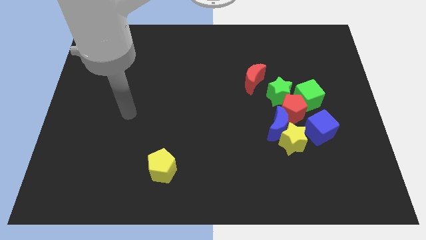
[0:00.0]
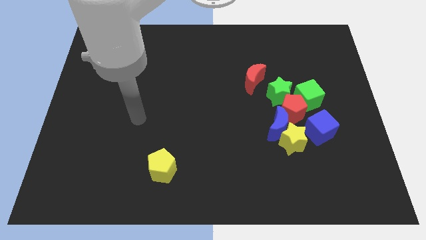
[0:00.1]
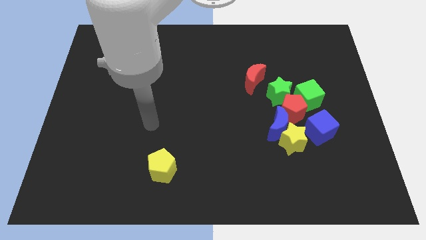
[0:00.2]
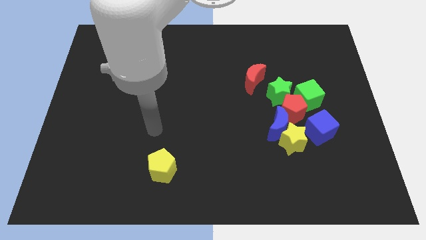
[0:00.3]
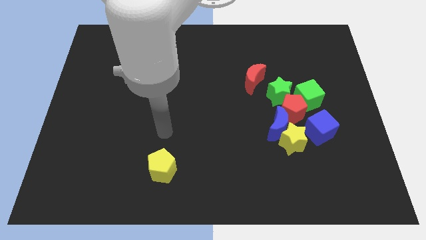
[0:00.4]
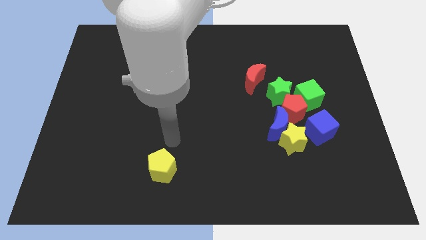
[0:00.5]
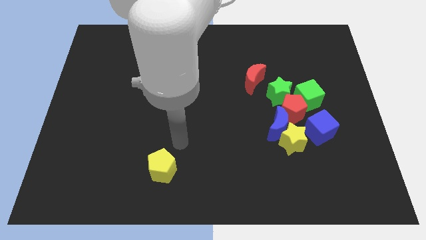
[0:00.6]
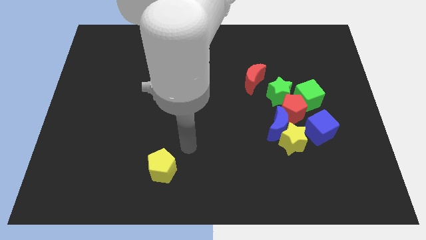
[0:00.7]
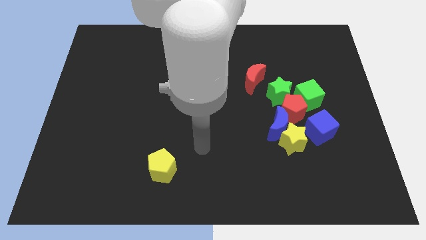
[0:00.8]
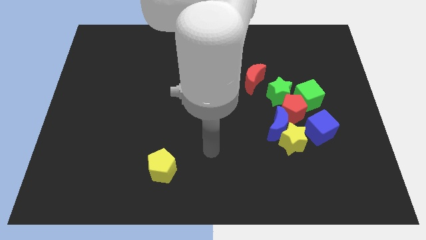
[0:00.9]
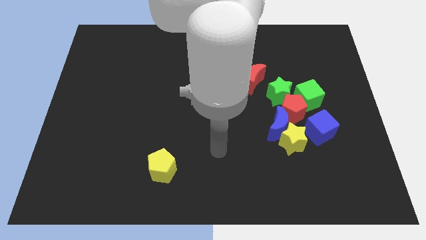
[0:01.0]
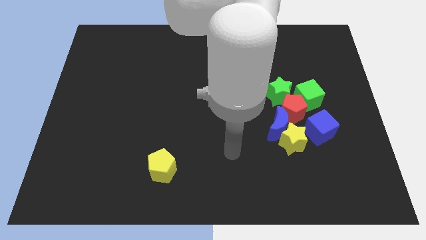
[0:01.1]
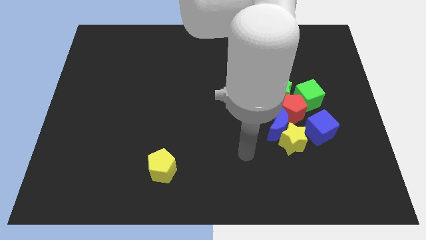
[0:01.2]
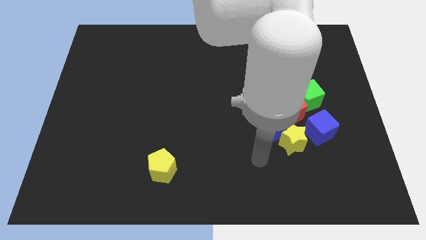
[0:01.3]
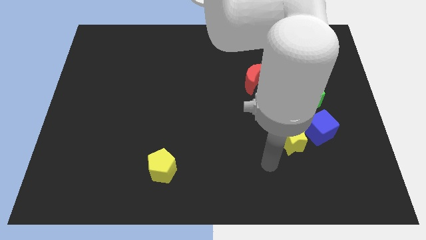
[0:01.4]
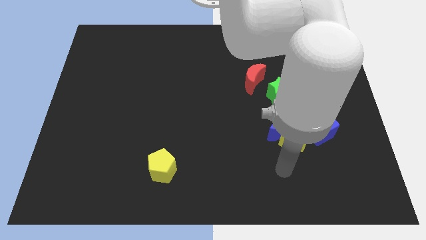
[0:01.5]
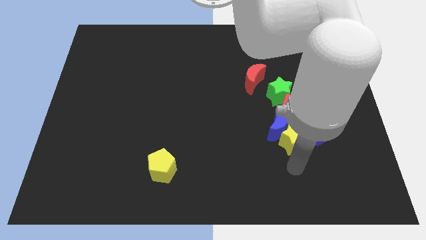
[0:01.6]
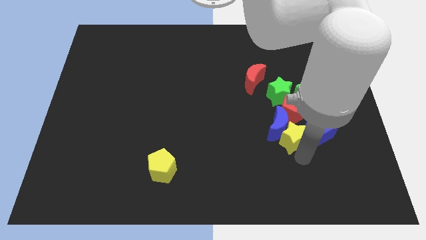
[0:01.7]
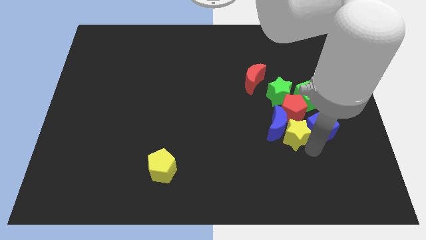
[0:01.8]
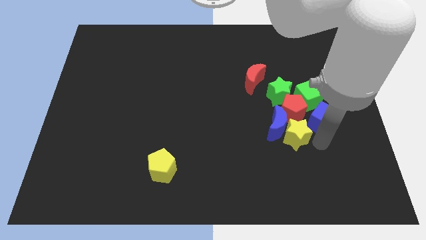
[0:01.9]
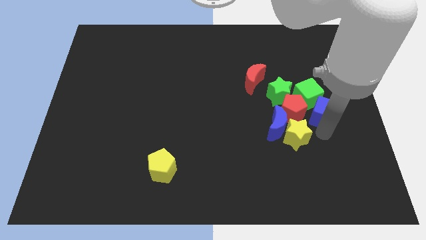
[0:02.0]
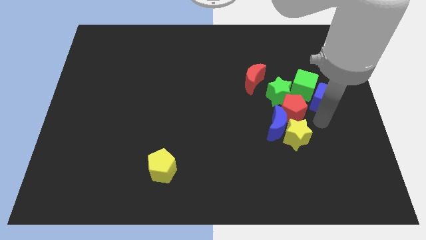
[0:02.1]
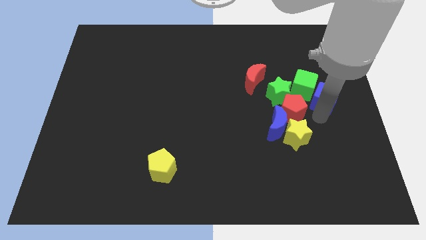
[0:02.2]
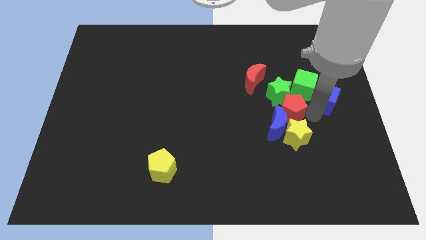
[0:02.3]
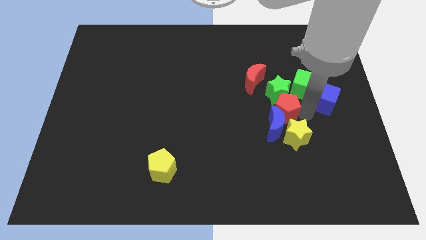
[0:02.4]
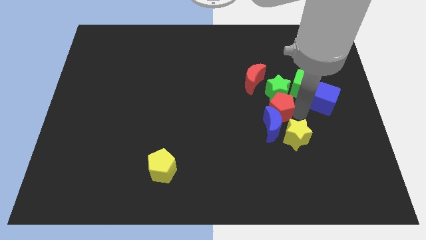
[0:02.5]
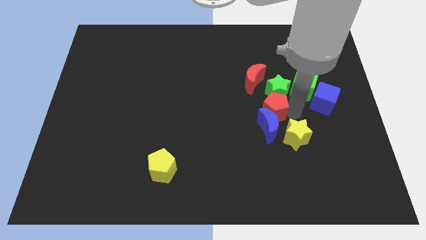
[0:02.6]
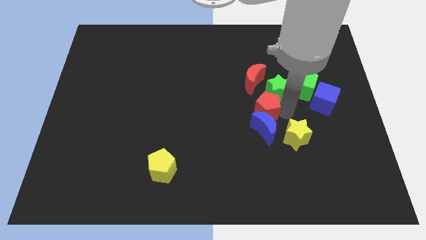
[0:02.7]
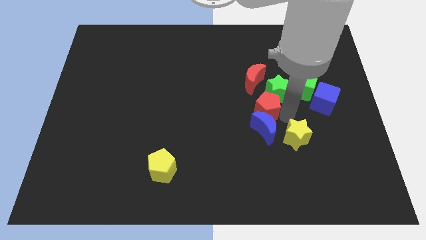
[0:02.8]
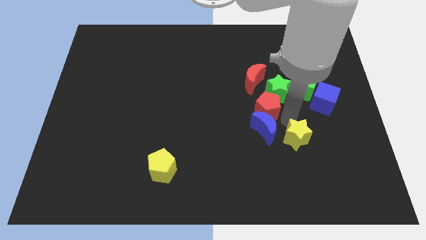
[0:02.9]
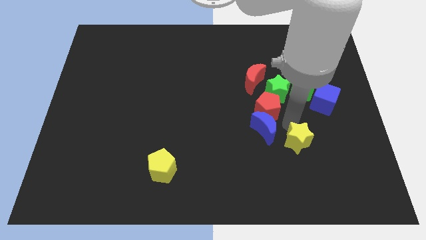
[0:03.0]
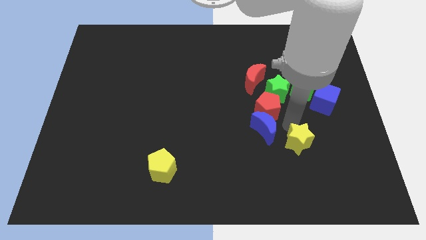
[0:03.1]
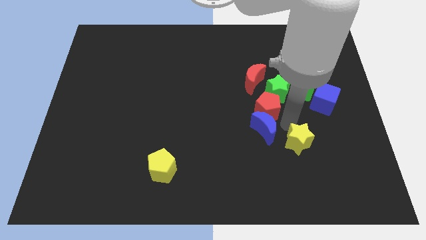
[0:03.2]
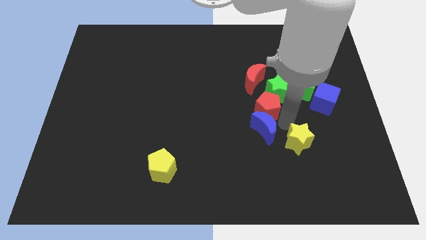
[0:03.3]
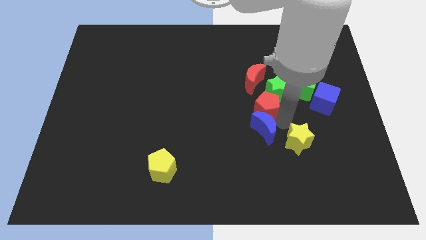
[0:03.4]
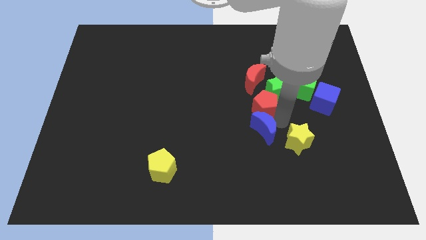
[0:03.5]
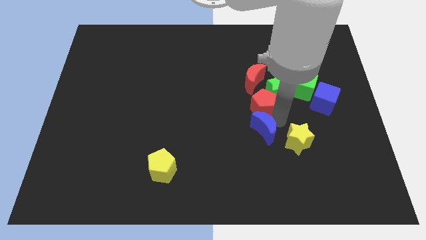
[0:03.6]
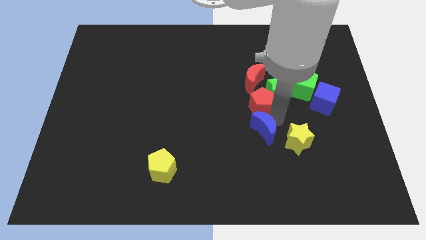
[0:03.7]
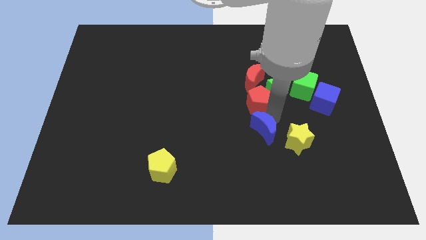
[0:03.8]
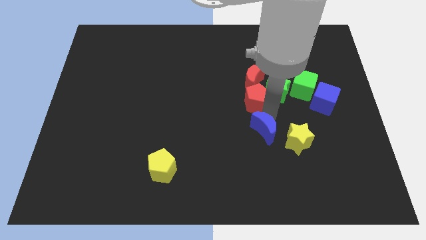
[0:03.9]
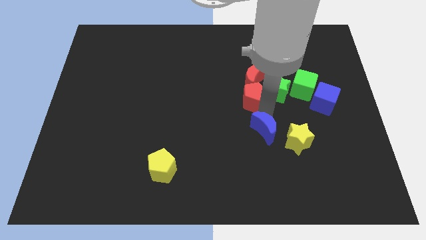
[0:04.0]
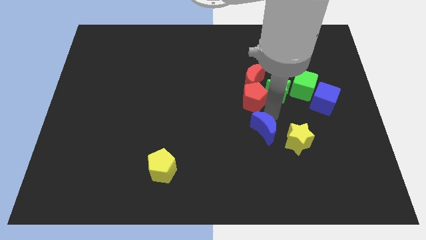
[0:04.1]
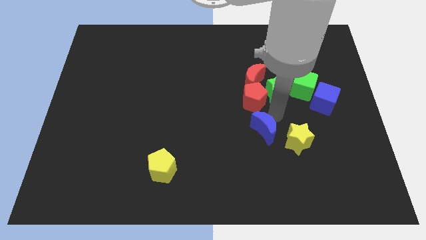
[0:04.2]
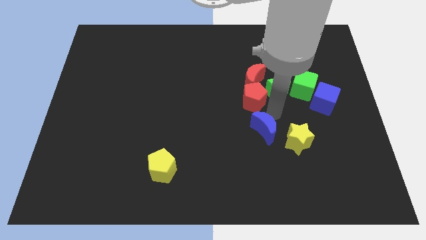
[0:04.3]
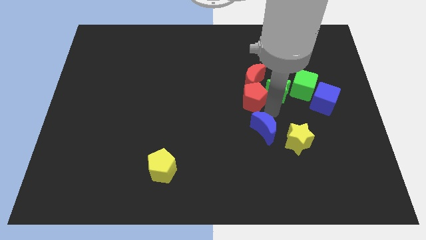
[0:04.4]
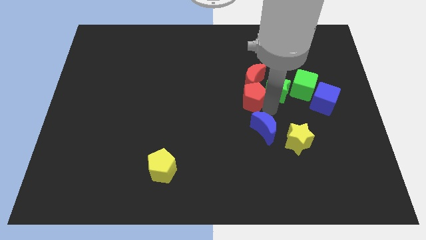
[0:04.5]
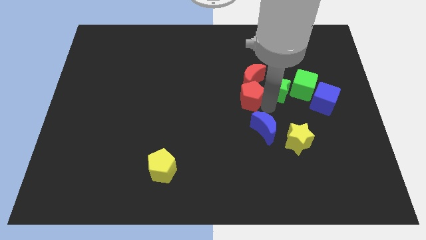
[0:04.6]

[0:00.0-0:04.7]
separate the red pentagon from the group

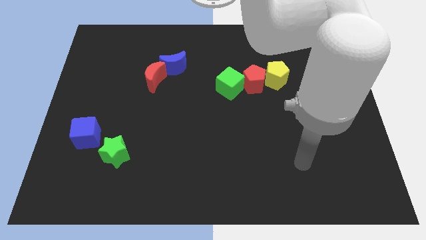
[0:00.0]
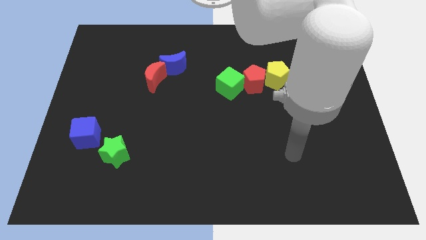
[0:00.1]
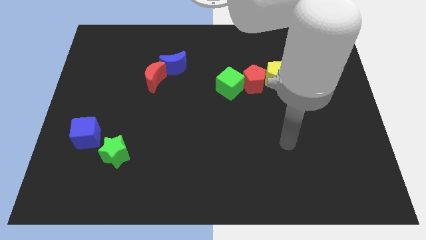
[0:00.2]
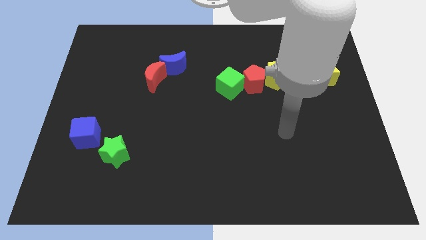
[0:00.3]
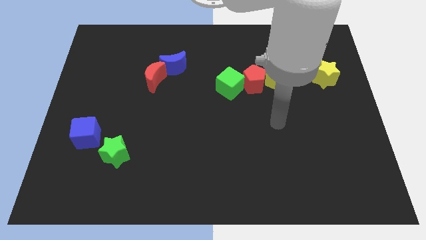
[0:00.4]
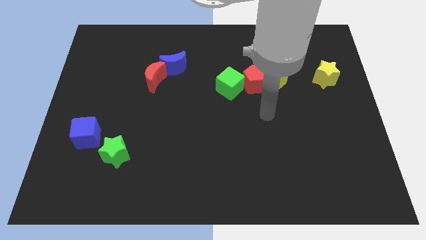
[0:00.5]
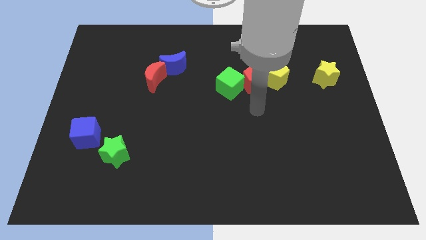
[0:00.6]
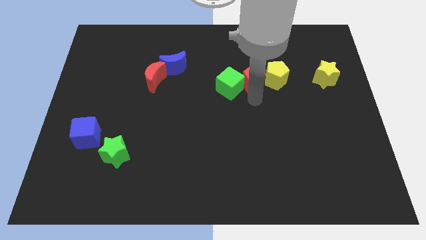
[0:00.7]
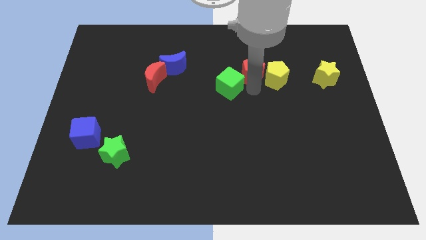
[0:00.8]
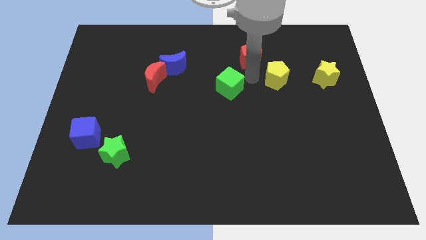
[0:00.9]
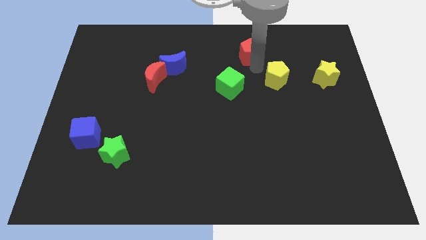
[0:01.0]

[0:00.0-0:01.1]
move the yellow pentagon away from the red pentagon

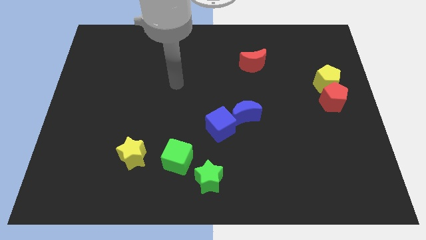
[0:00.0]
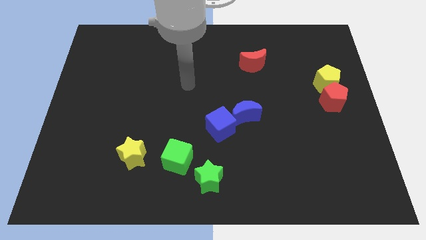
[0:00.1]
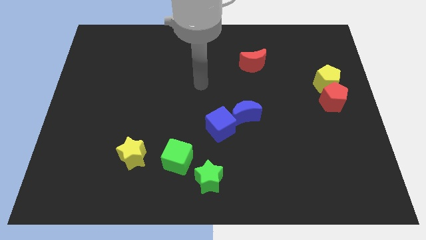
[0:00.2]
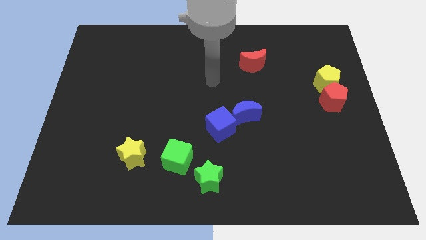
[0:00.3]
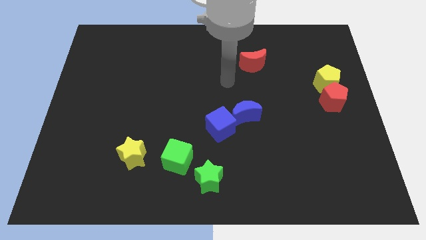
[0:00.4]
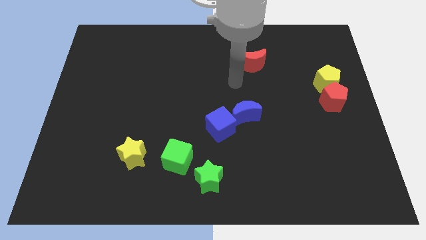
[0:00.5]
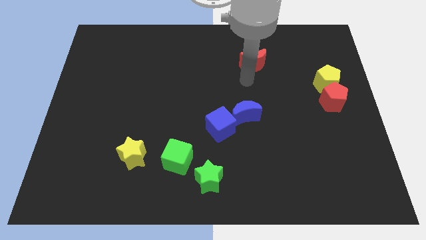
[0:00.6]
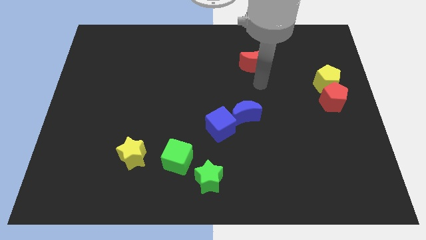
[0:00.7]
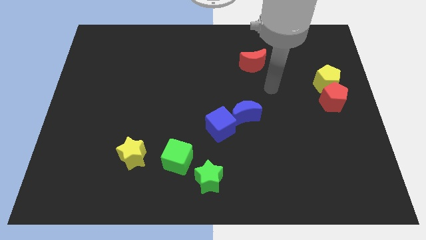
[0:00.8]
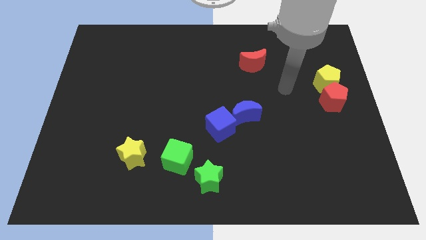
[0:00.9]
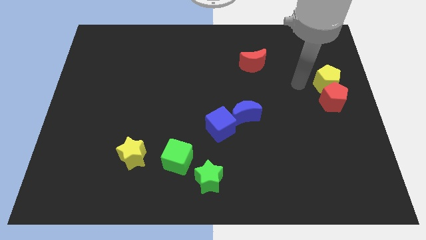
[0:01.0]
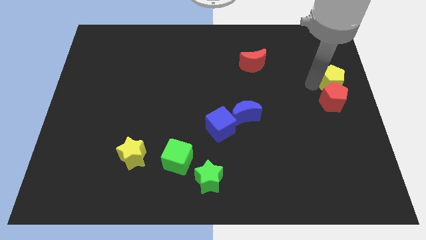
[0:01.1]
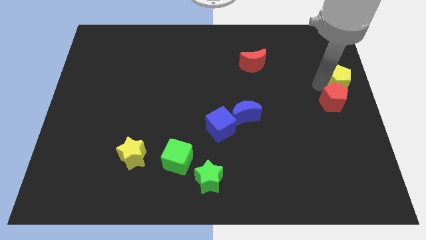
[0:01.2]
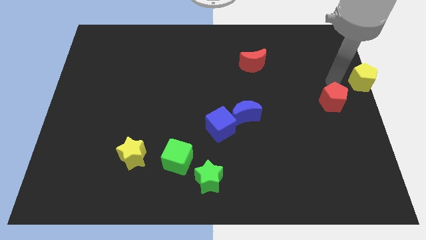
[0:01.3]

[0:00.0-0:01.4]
move the red pentagon away from the yellow pentagon

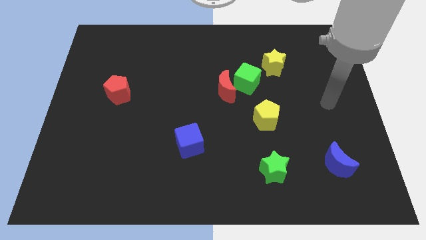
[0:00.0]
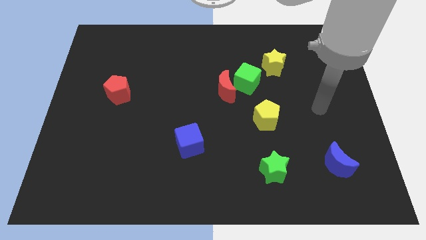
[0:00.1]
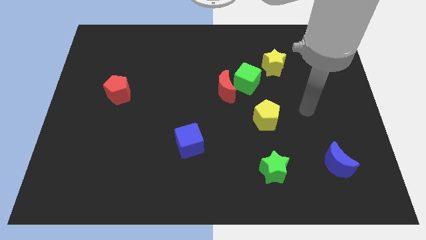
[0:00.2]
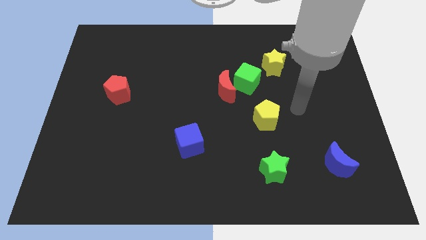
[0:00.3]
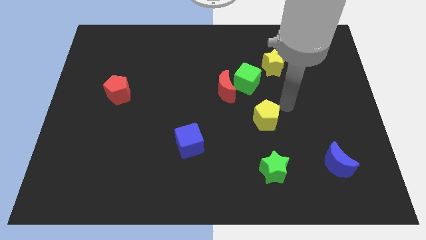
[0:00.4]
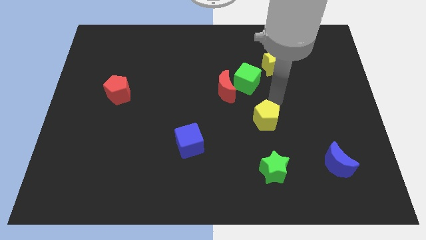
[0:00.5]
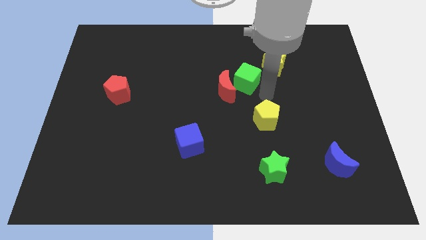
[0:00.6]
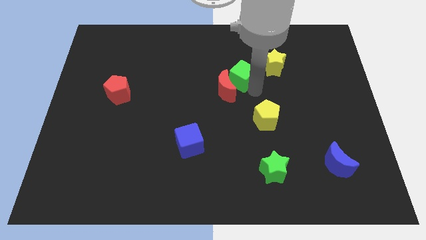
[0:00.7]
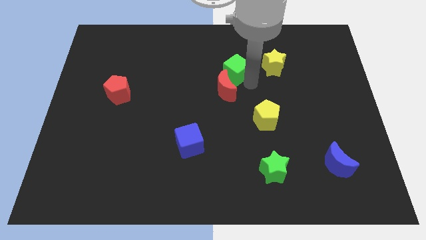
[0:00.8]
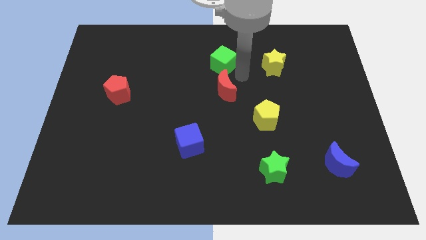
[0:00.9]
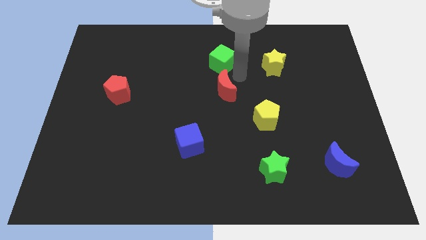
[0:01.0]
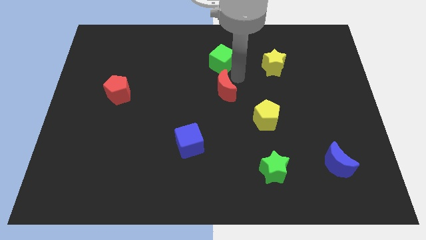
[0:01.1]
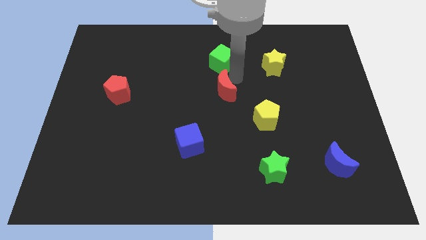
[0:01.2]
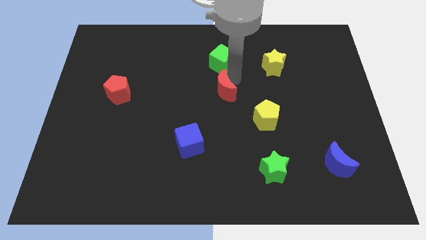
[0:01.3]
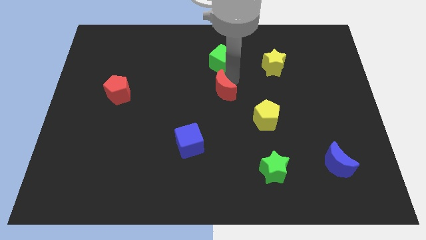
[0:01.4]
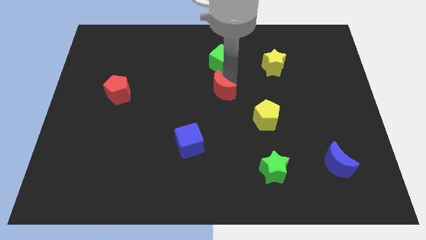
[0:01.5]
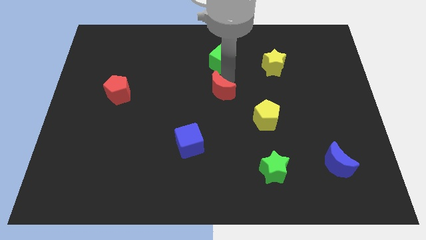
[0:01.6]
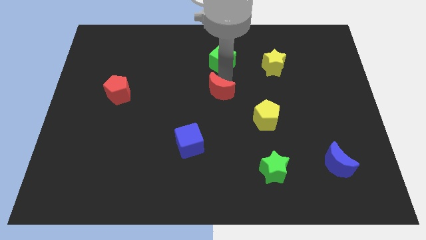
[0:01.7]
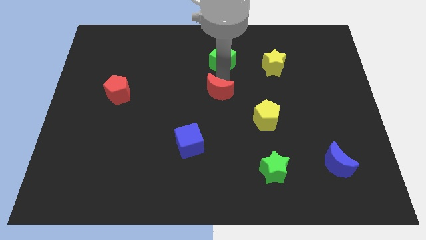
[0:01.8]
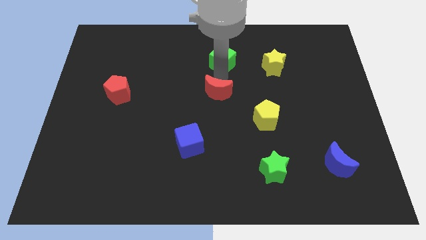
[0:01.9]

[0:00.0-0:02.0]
pull the red moon apart from the green cube

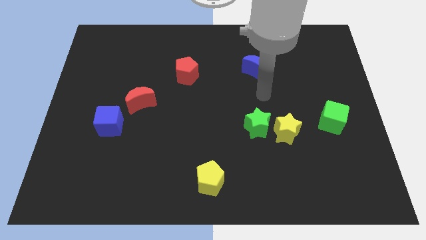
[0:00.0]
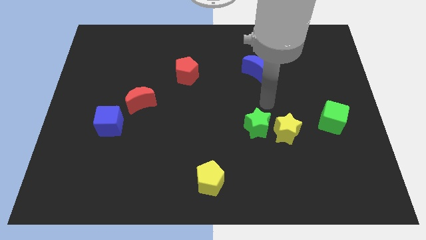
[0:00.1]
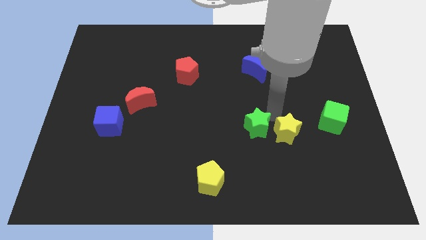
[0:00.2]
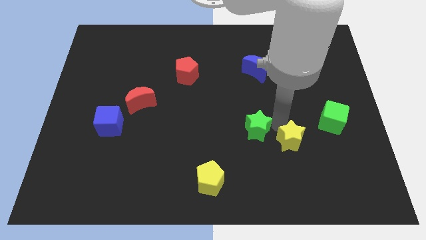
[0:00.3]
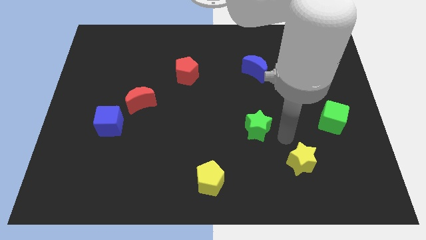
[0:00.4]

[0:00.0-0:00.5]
move the green star away from the yellow star
